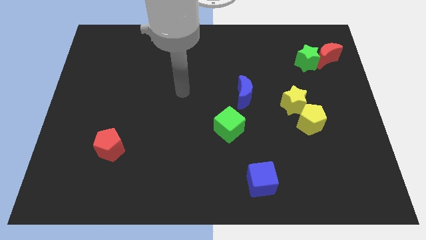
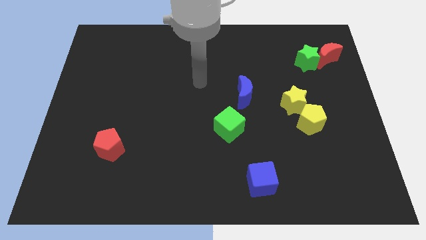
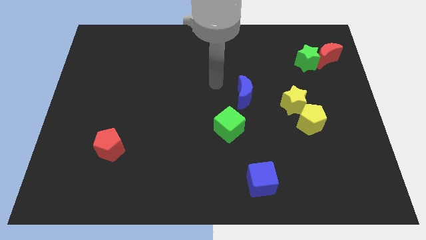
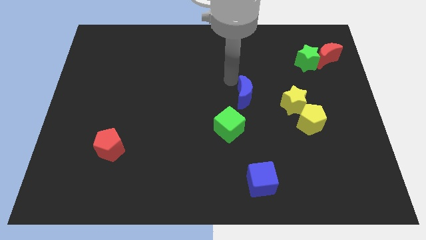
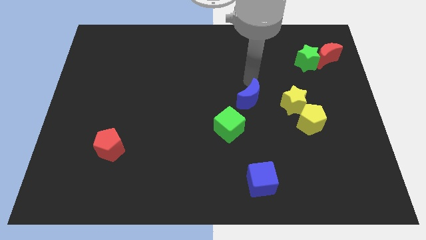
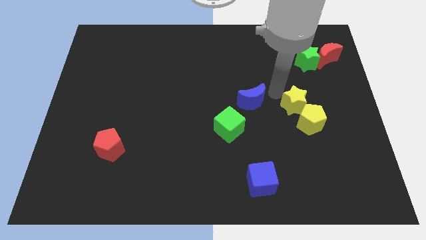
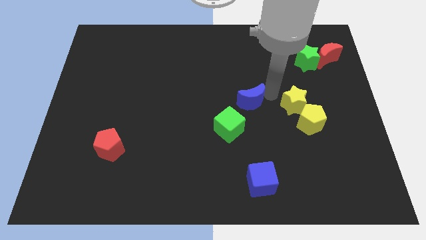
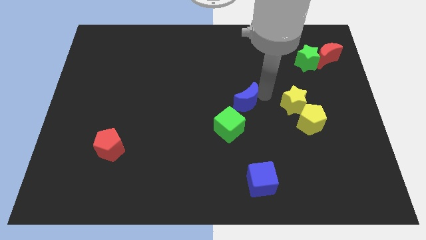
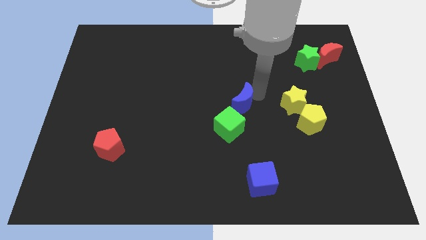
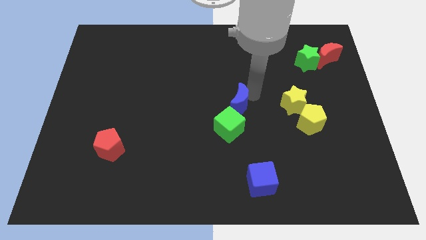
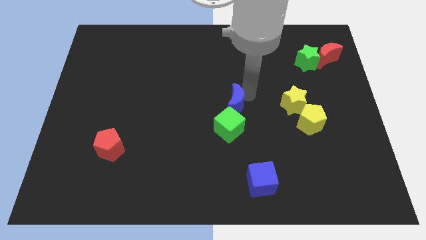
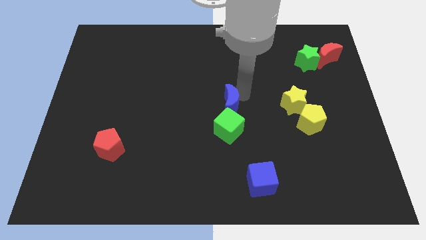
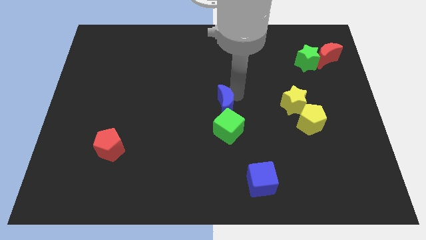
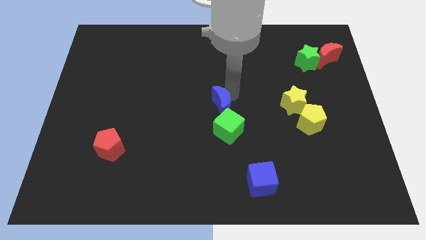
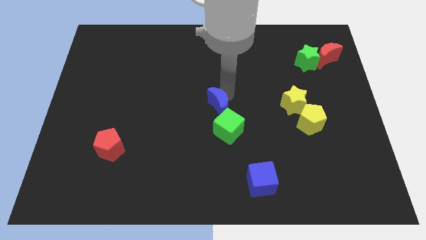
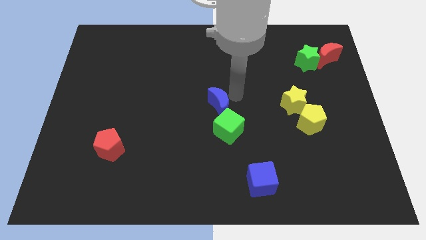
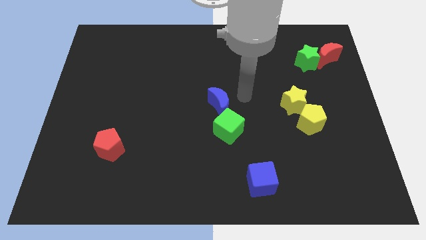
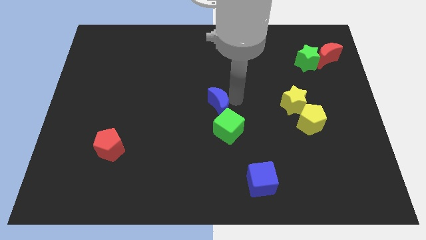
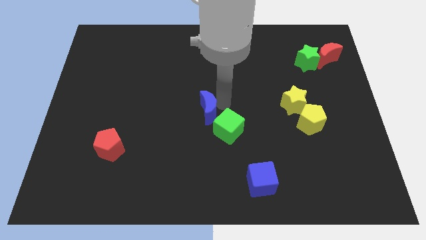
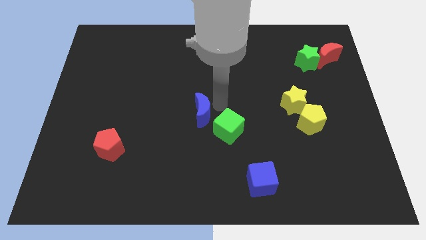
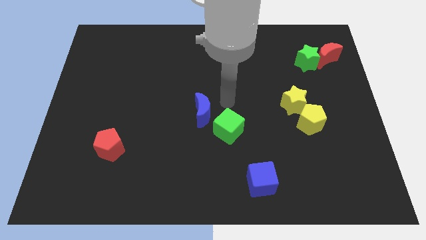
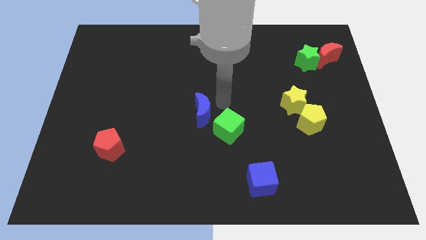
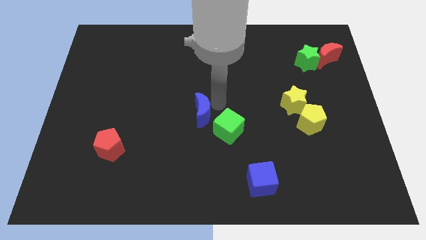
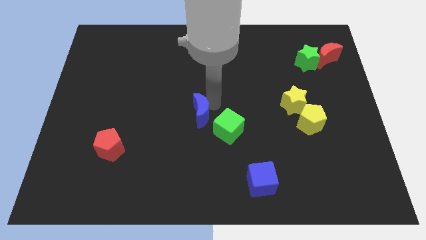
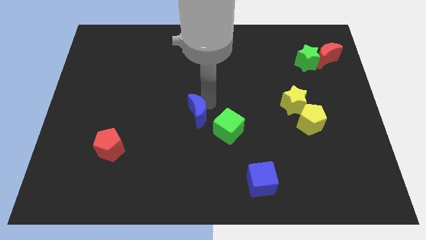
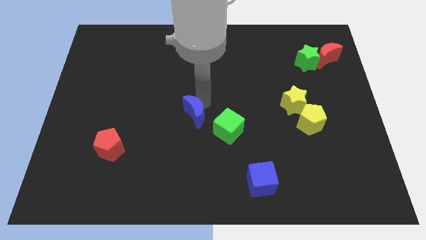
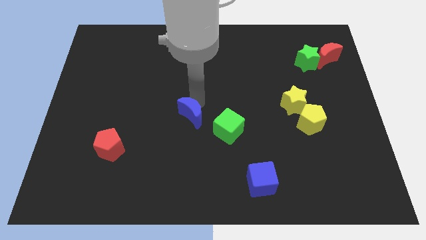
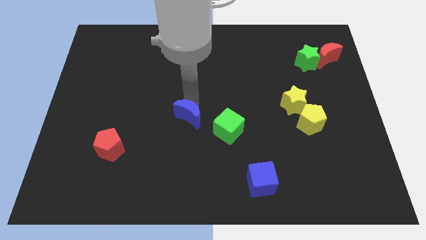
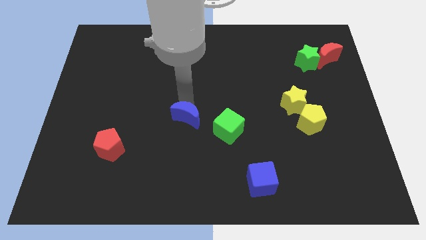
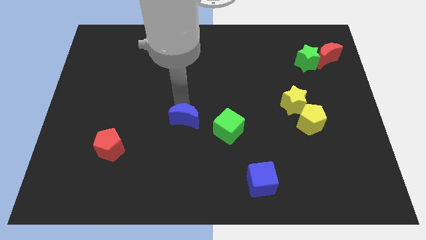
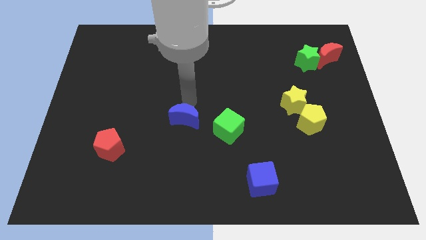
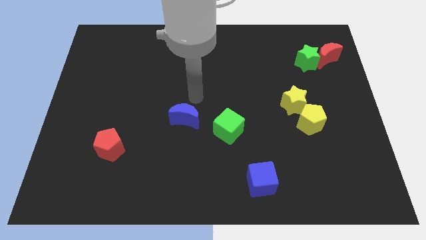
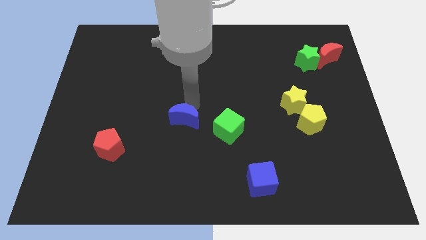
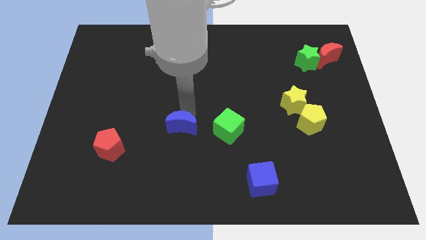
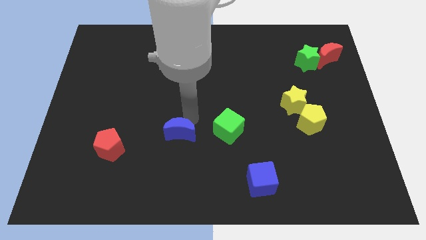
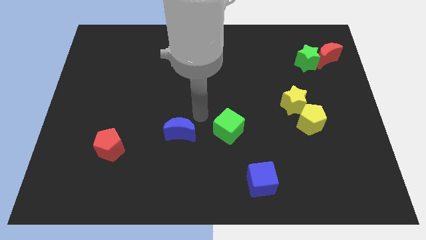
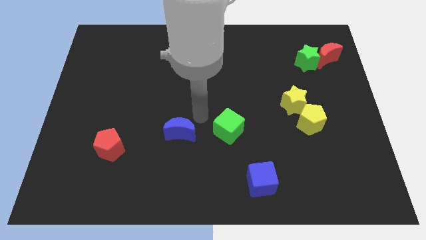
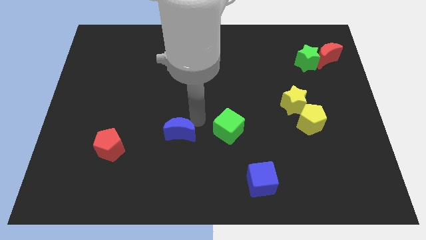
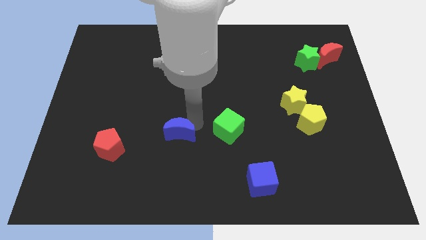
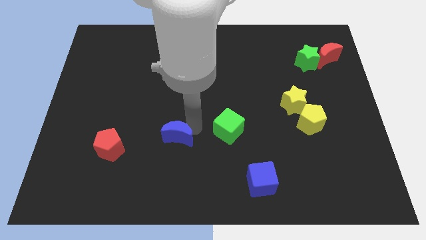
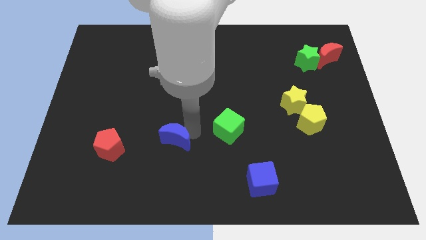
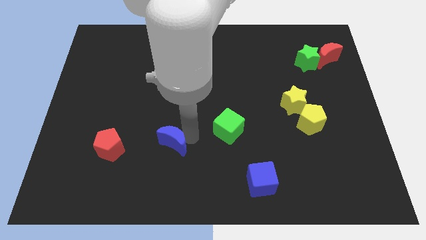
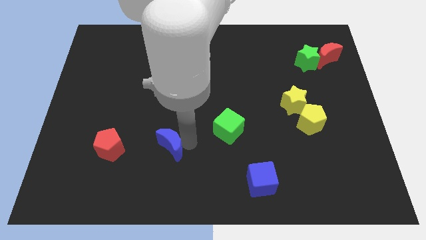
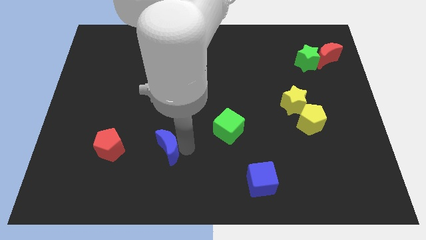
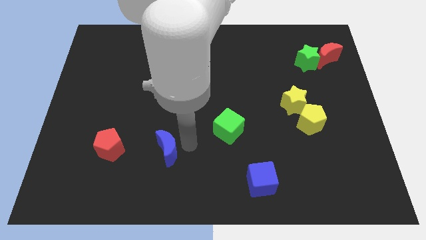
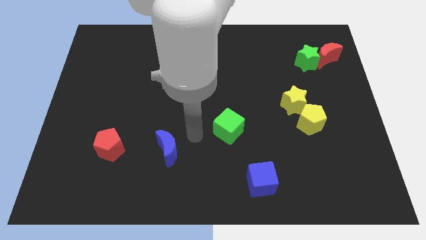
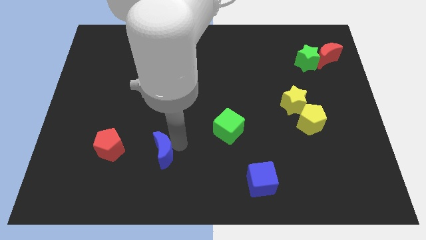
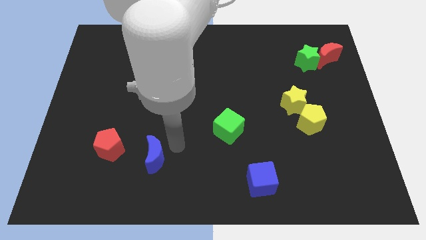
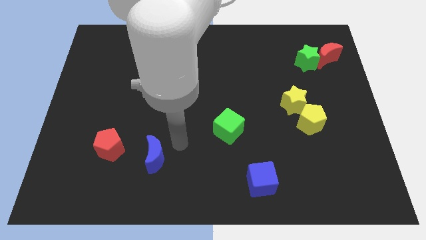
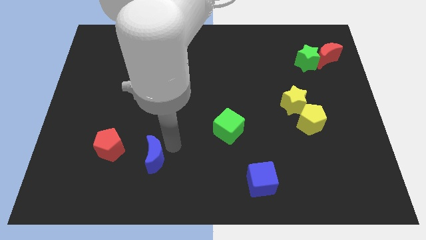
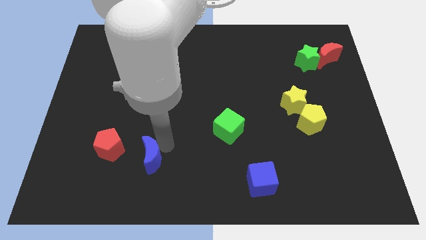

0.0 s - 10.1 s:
push the blue moon to the bottom right of the red pentagon

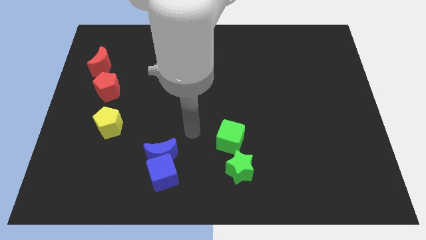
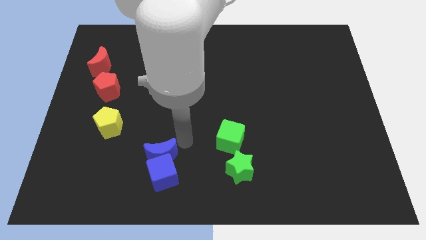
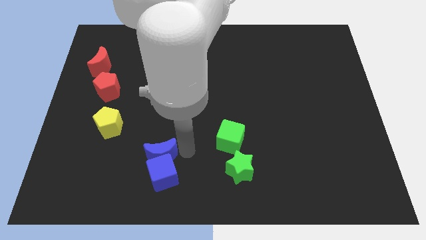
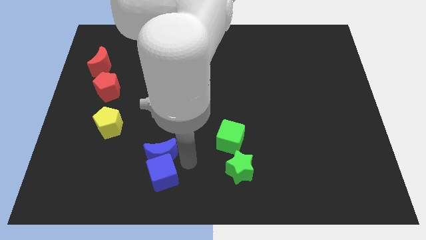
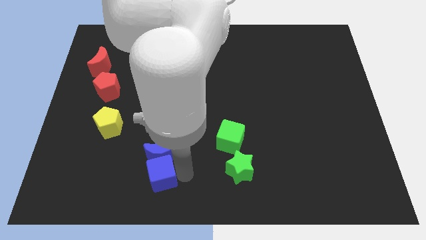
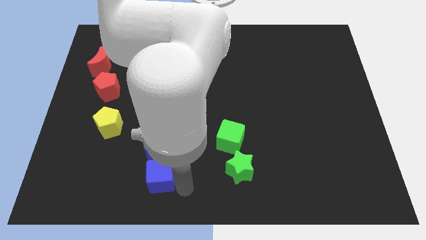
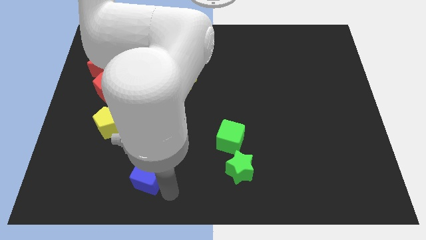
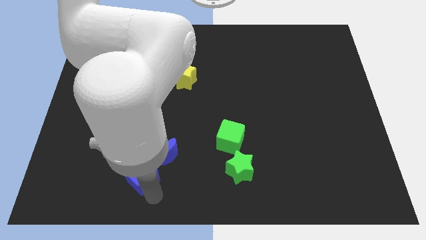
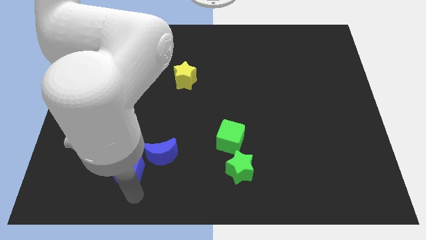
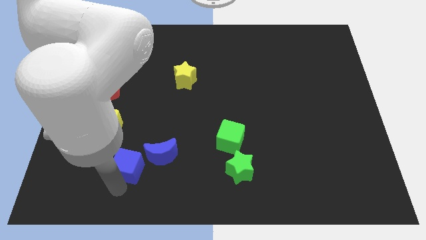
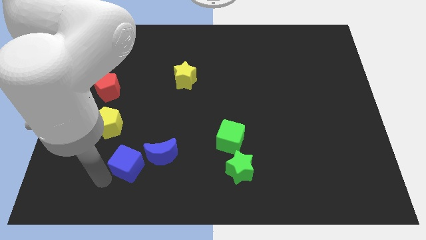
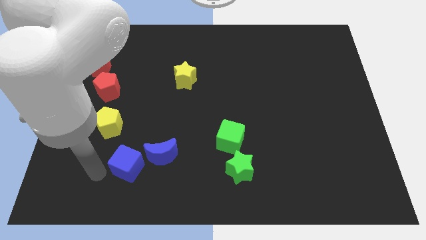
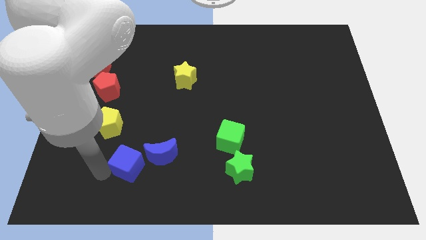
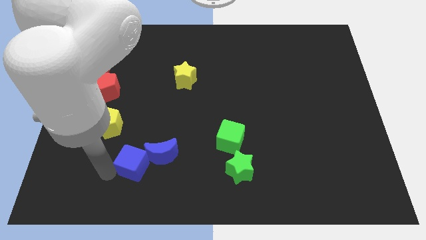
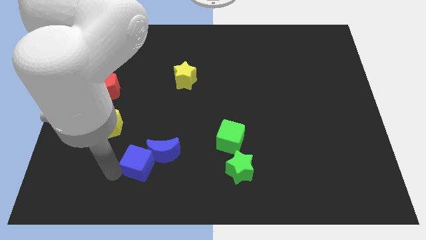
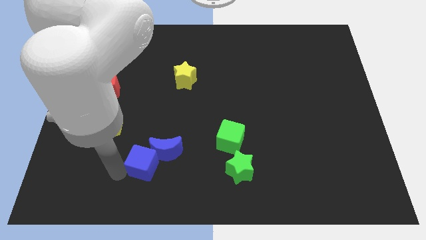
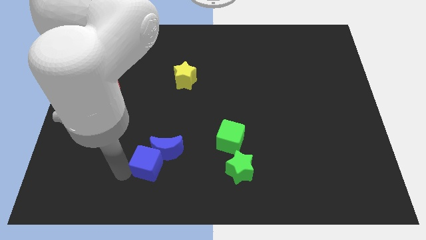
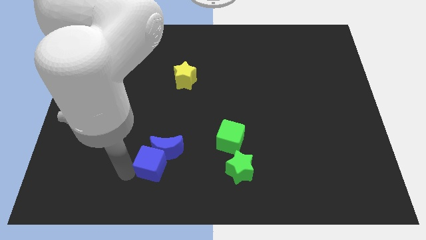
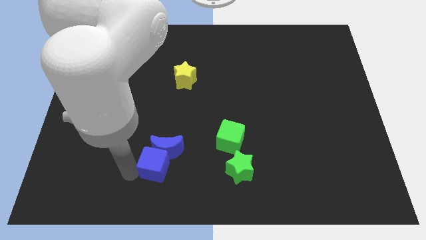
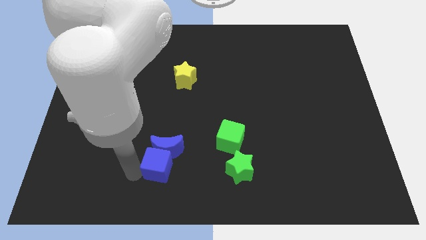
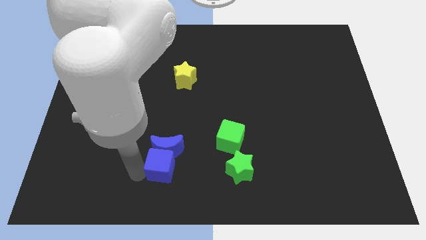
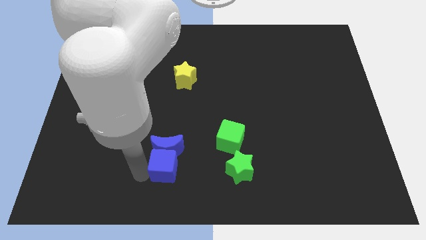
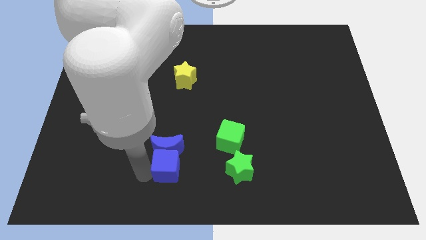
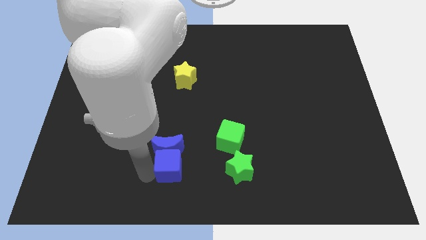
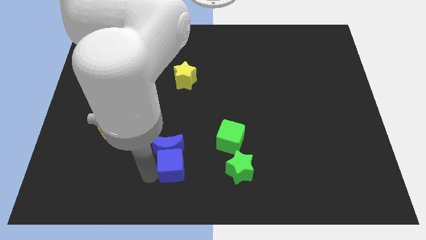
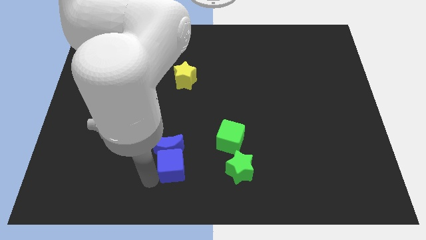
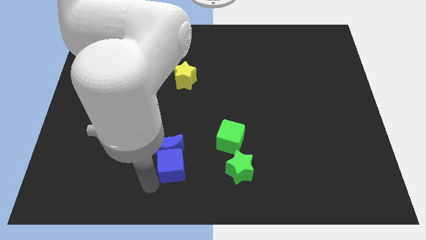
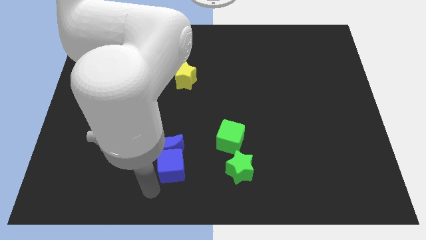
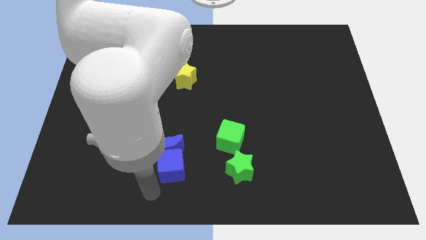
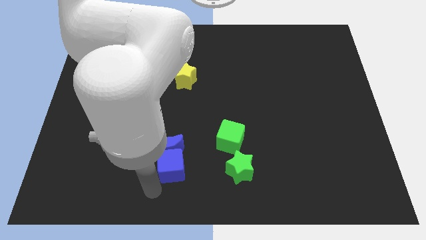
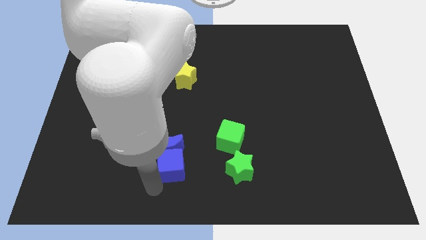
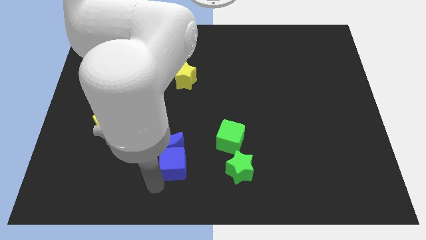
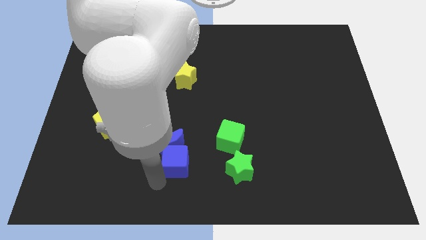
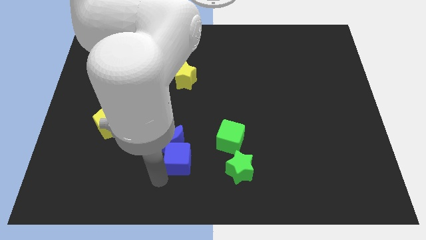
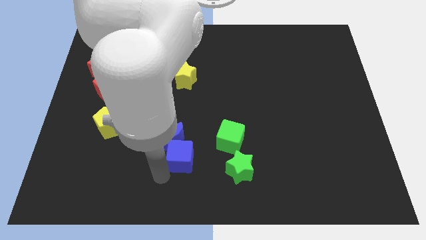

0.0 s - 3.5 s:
slide the blue cube just left of the green cube
